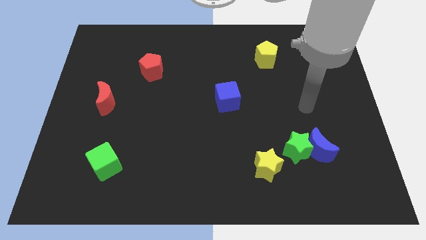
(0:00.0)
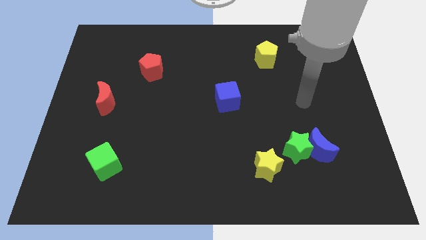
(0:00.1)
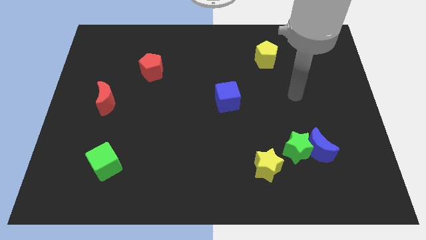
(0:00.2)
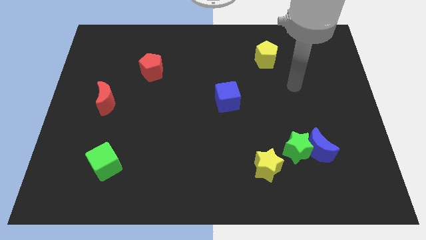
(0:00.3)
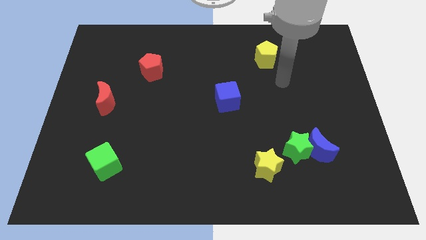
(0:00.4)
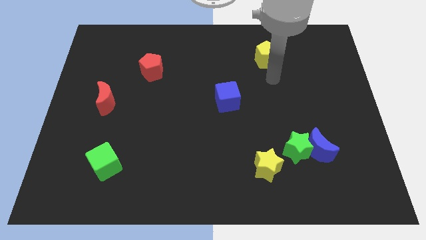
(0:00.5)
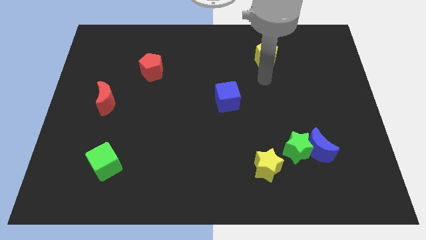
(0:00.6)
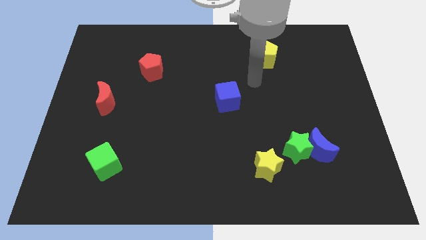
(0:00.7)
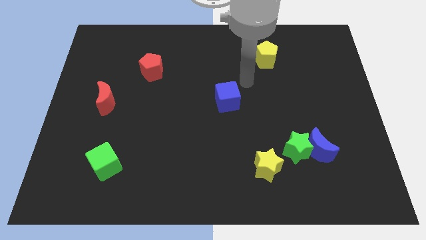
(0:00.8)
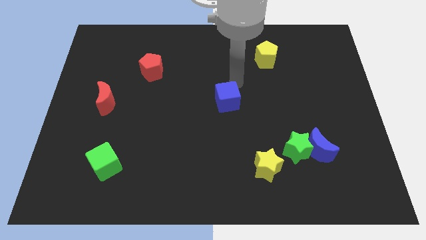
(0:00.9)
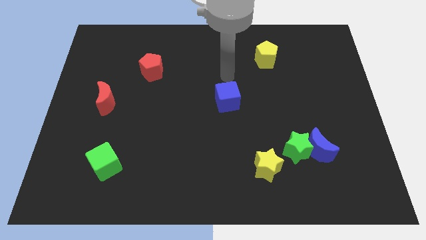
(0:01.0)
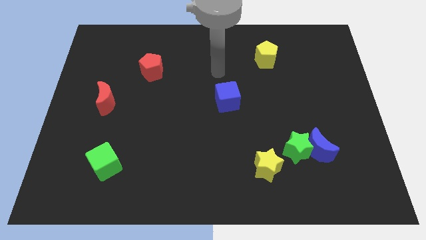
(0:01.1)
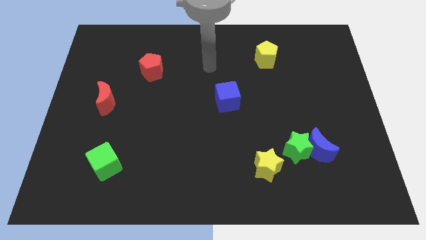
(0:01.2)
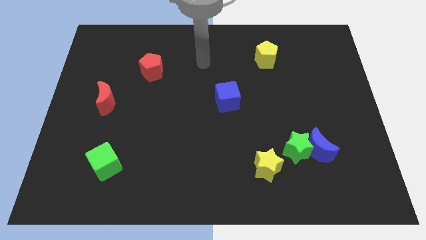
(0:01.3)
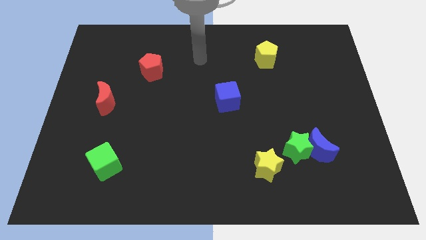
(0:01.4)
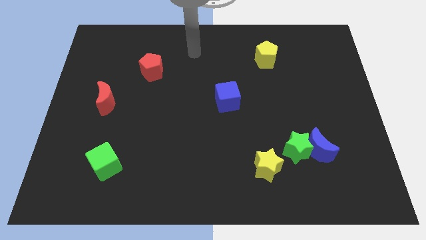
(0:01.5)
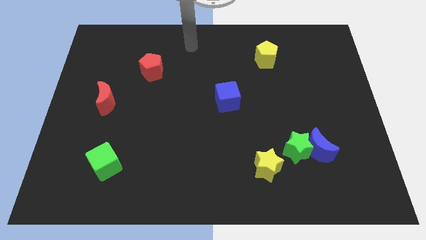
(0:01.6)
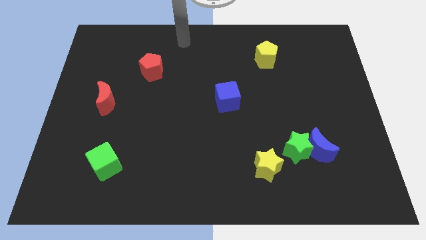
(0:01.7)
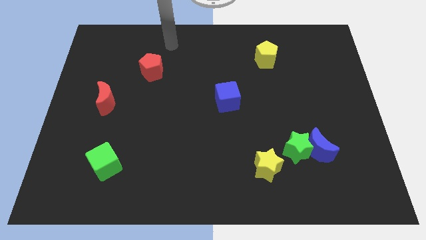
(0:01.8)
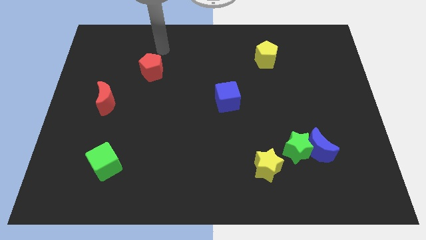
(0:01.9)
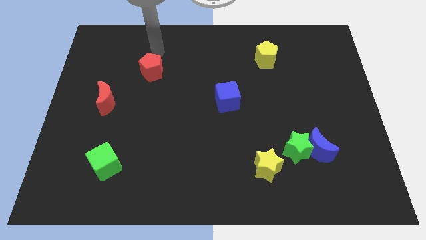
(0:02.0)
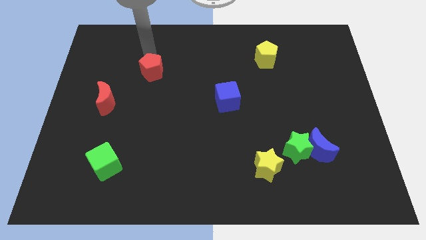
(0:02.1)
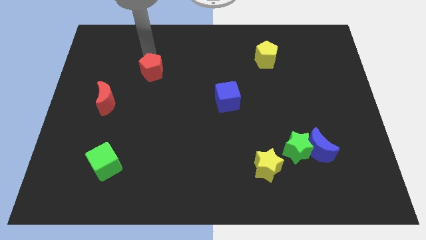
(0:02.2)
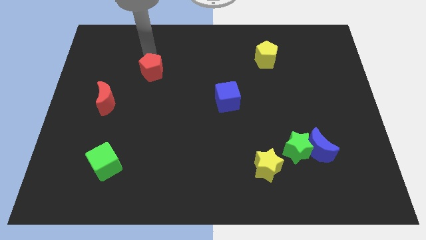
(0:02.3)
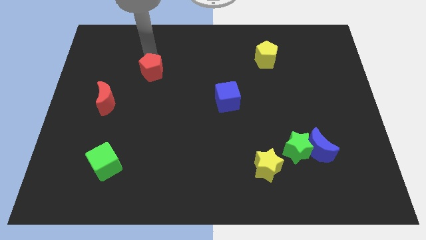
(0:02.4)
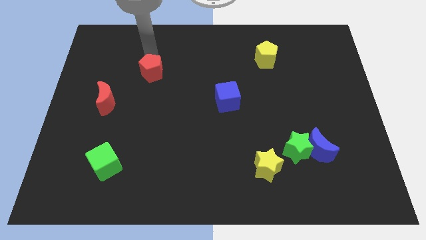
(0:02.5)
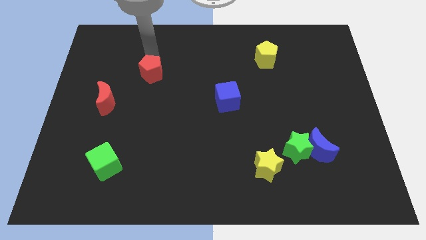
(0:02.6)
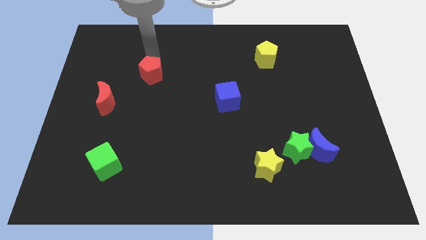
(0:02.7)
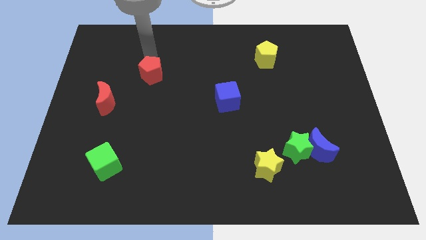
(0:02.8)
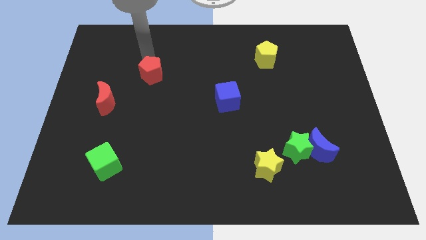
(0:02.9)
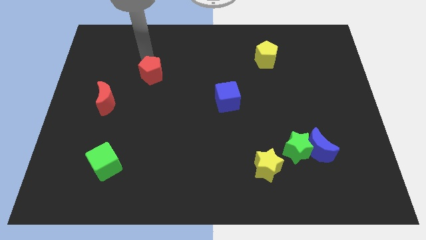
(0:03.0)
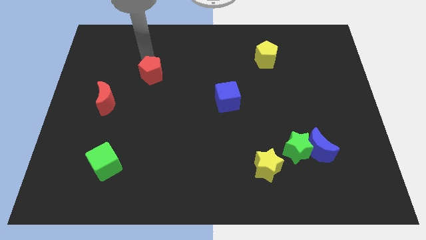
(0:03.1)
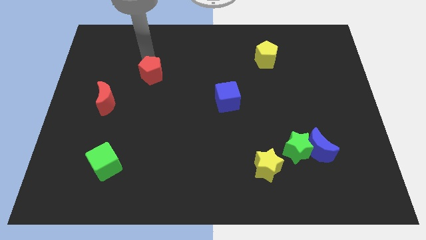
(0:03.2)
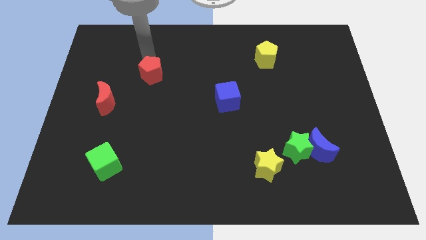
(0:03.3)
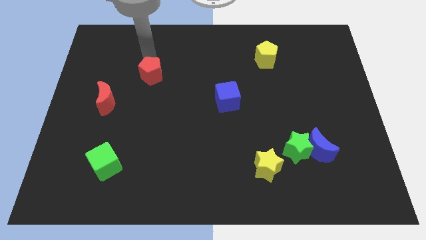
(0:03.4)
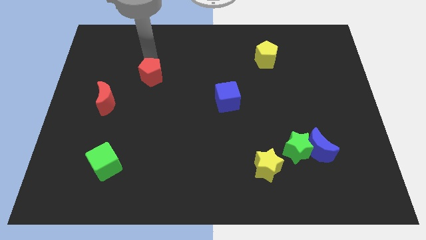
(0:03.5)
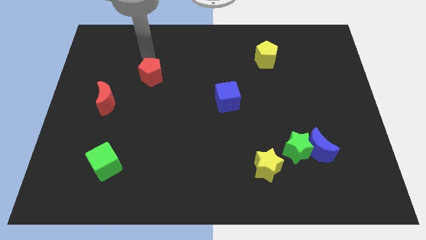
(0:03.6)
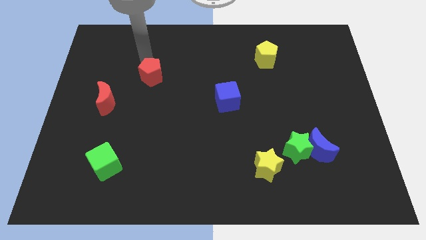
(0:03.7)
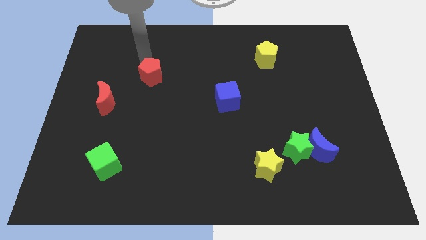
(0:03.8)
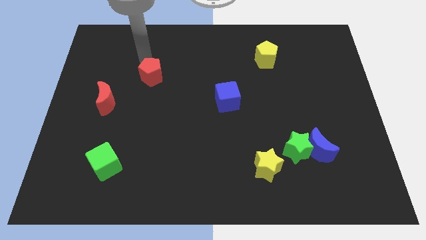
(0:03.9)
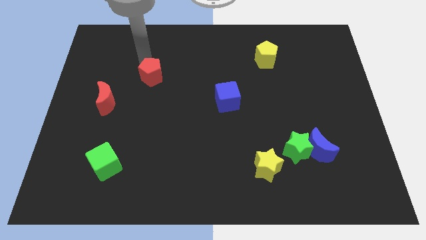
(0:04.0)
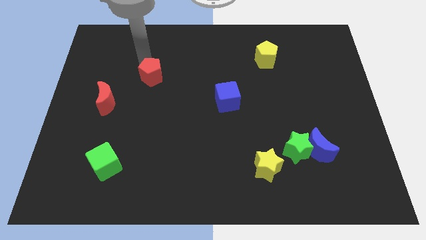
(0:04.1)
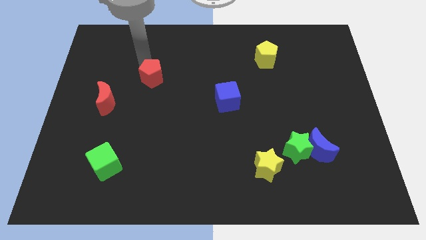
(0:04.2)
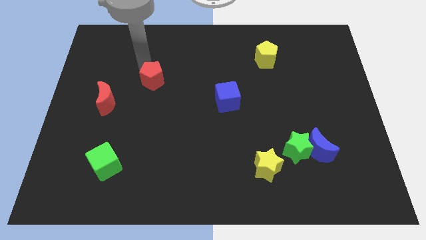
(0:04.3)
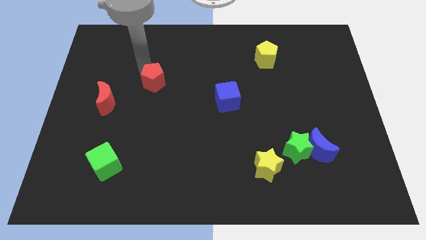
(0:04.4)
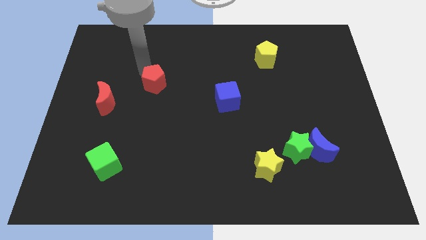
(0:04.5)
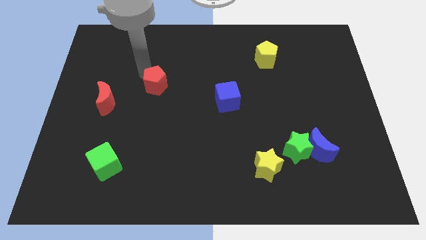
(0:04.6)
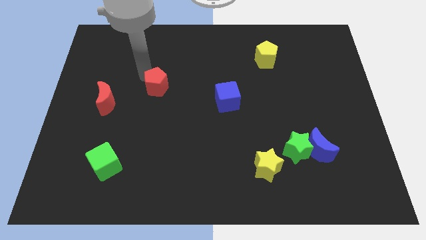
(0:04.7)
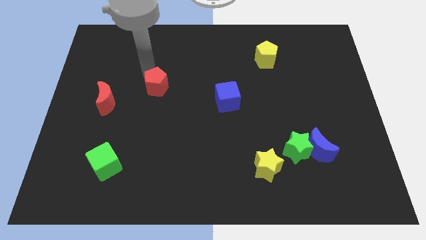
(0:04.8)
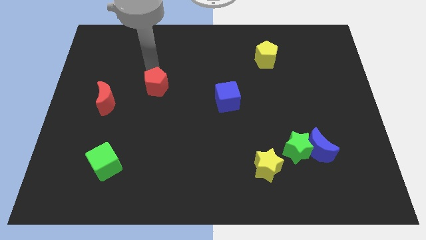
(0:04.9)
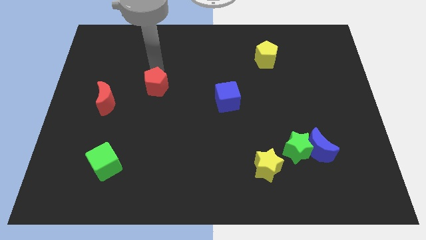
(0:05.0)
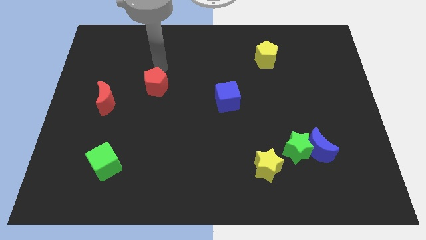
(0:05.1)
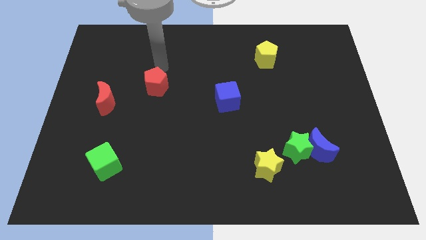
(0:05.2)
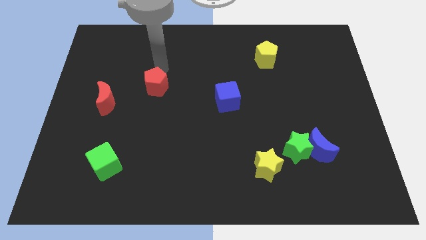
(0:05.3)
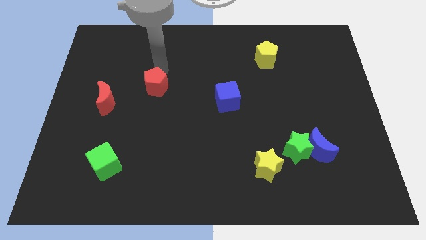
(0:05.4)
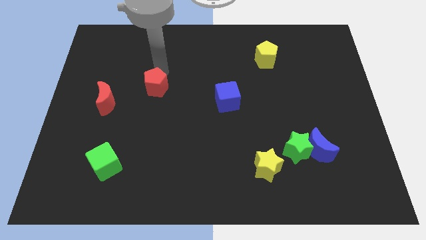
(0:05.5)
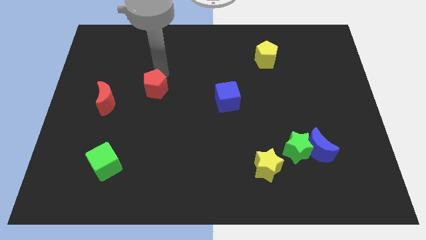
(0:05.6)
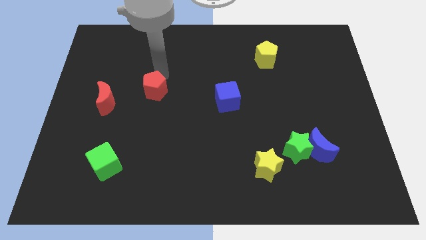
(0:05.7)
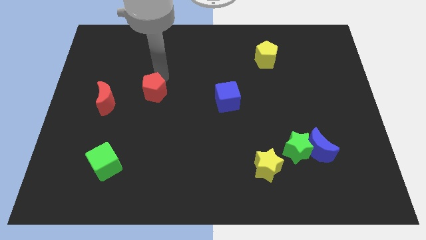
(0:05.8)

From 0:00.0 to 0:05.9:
push the red pentagon downwards a little bit

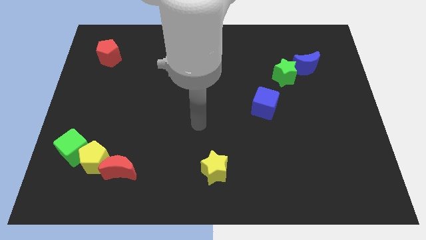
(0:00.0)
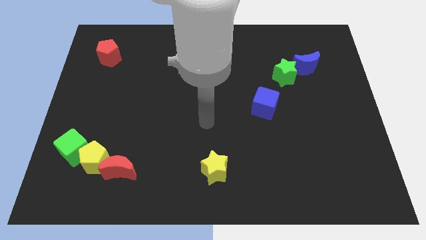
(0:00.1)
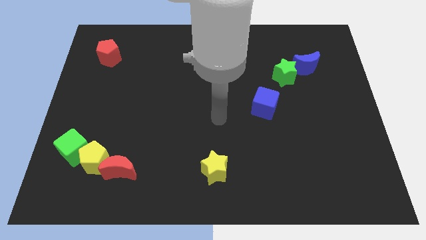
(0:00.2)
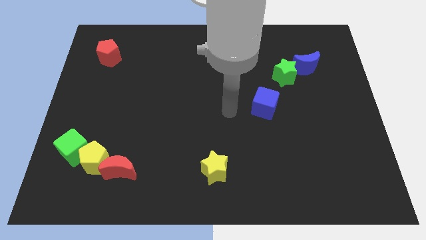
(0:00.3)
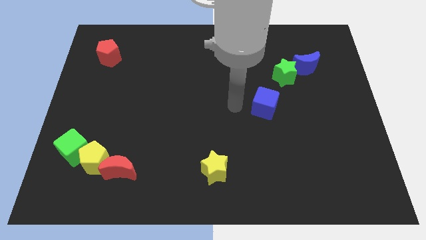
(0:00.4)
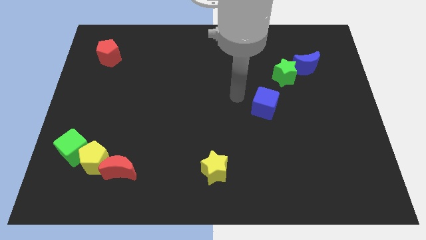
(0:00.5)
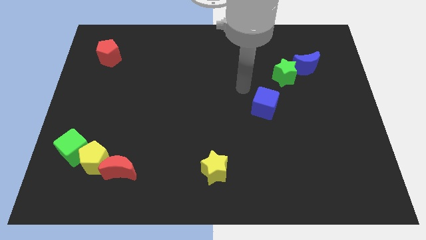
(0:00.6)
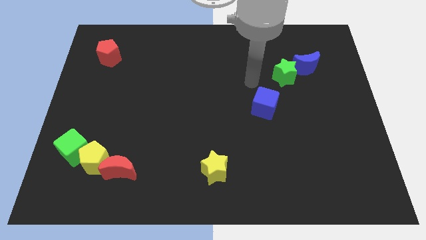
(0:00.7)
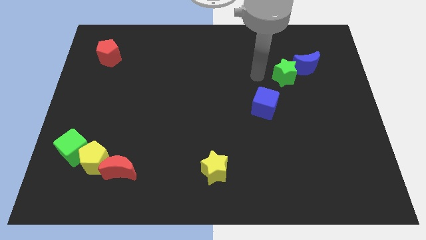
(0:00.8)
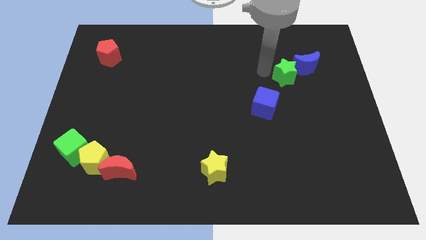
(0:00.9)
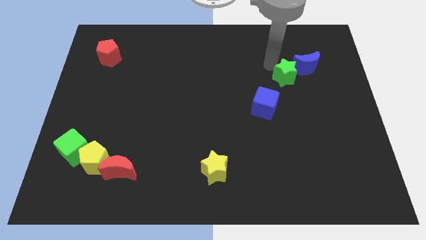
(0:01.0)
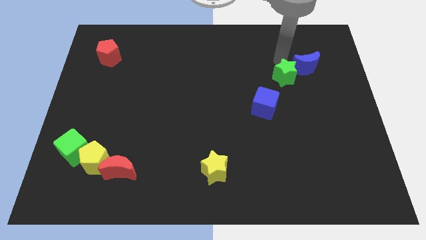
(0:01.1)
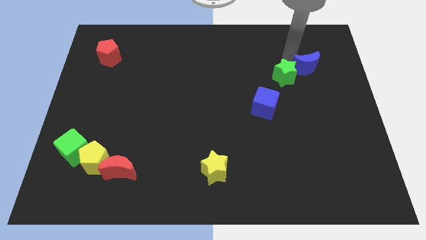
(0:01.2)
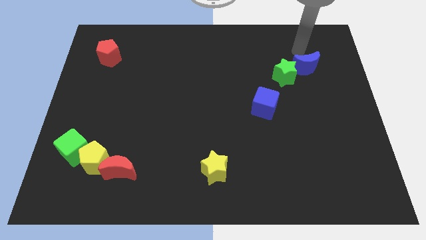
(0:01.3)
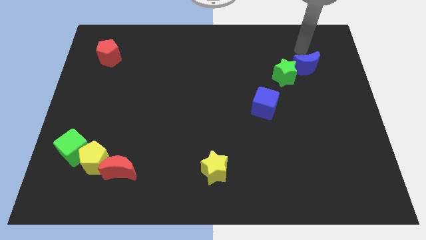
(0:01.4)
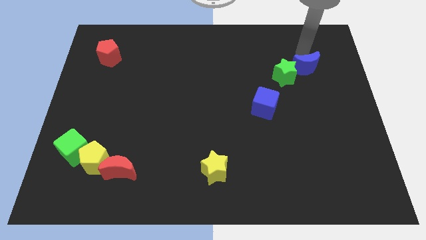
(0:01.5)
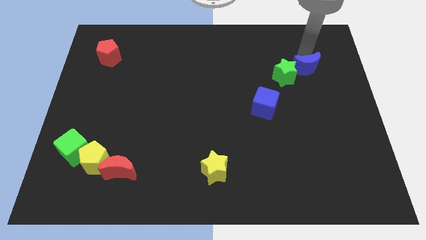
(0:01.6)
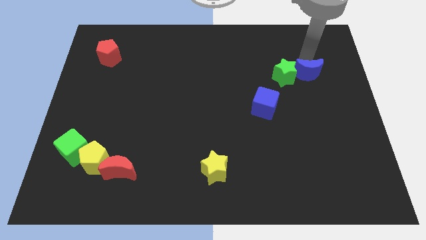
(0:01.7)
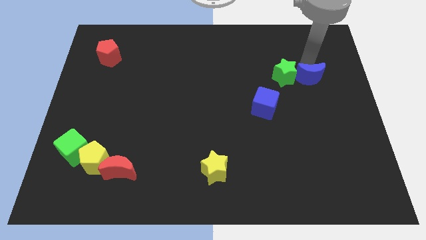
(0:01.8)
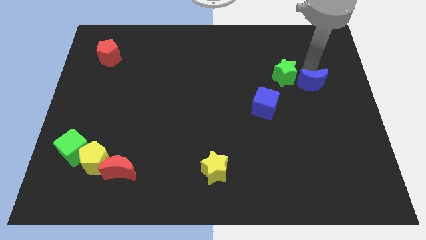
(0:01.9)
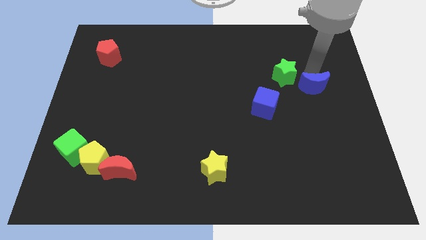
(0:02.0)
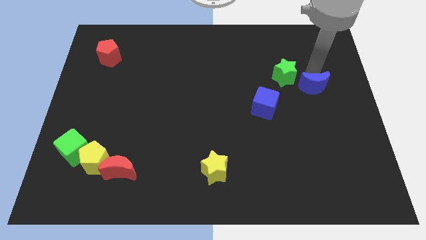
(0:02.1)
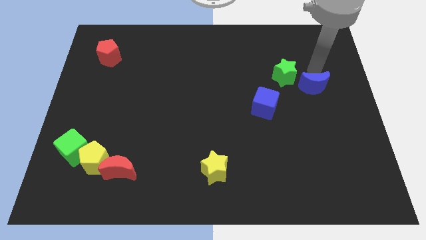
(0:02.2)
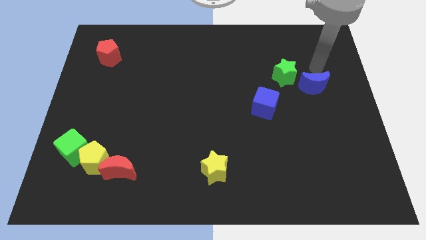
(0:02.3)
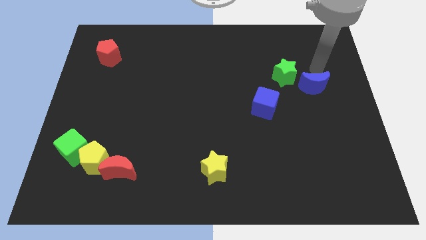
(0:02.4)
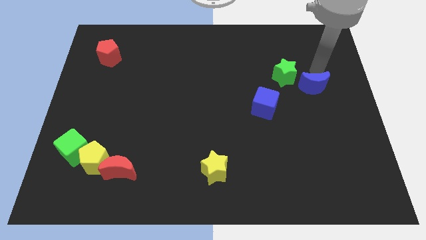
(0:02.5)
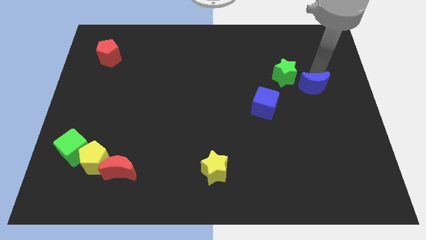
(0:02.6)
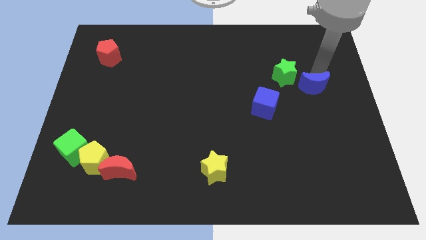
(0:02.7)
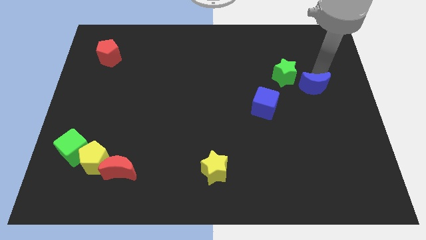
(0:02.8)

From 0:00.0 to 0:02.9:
push the blue moon somewhat downwards
